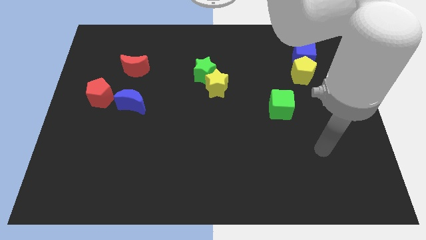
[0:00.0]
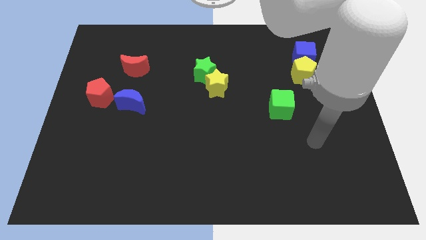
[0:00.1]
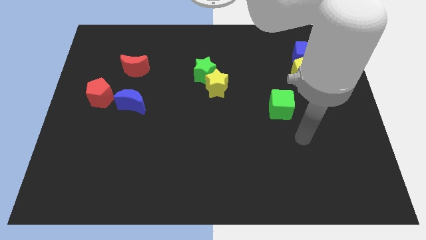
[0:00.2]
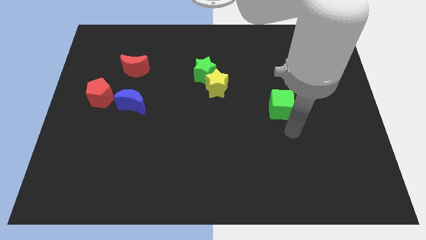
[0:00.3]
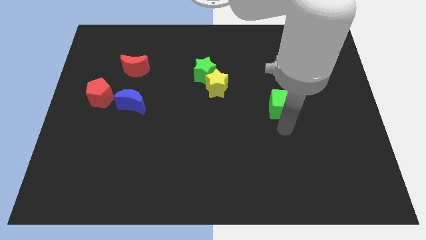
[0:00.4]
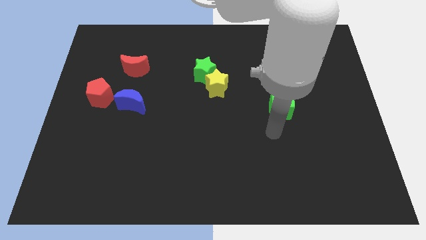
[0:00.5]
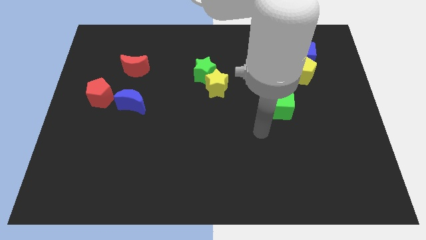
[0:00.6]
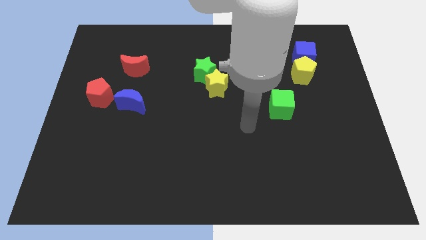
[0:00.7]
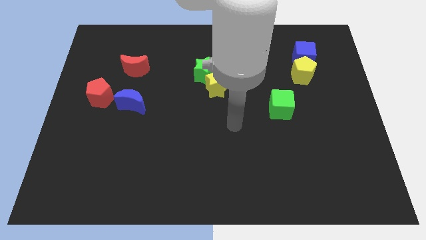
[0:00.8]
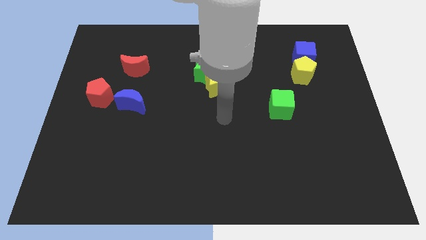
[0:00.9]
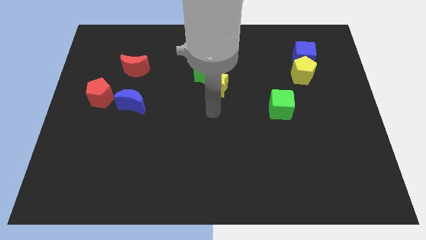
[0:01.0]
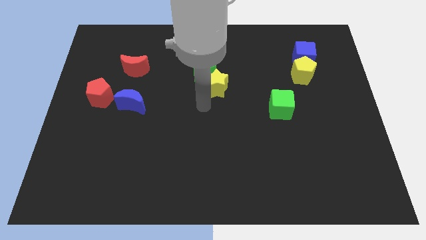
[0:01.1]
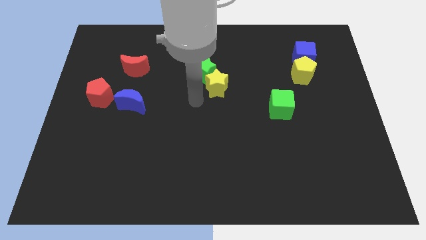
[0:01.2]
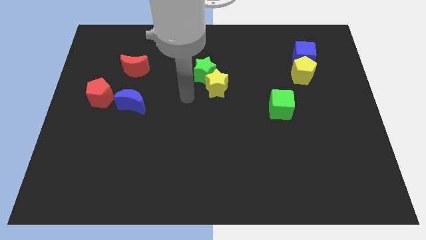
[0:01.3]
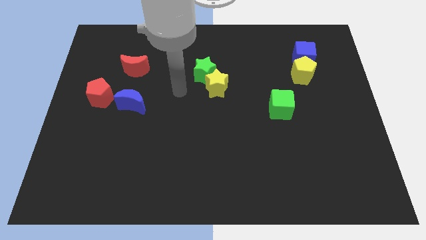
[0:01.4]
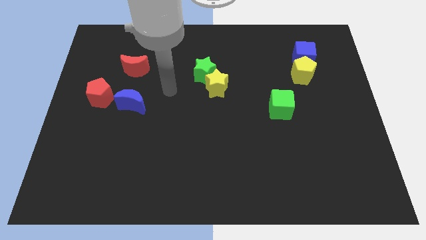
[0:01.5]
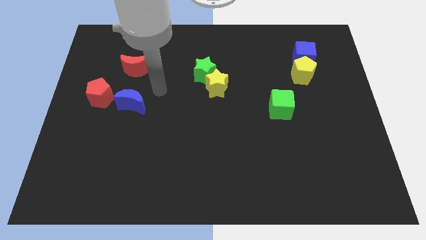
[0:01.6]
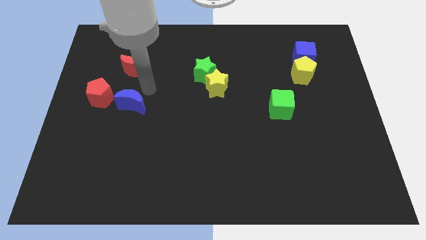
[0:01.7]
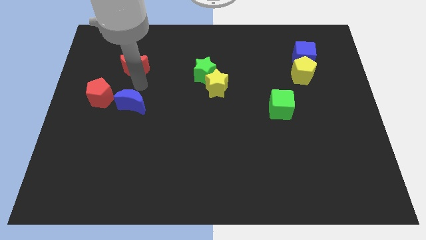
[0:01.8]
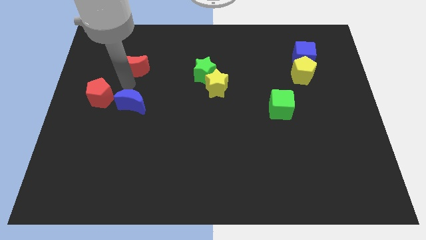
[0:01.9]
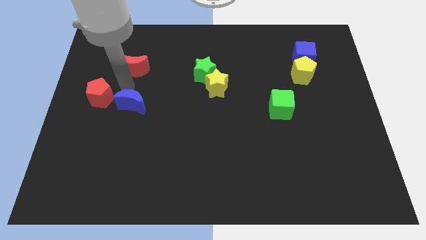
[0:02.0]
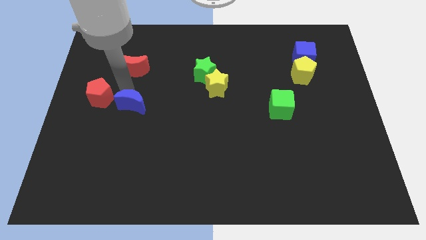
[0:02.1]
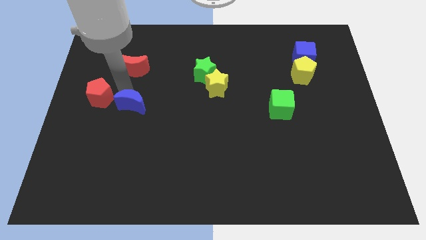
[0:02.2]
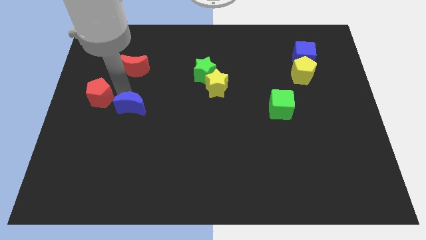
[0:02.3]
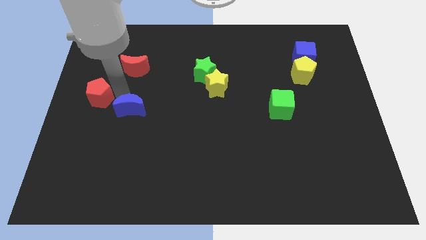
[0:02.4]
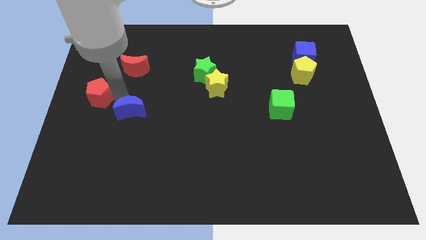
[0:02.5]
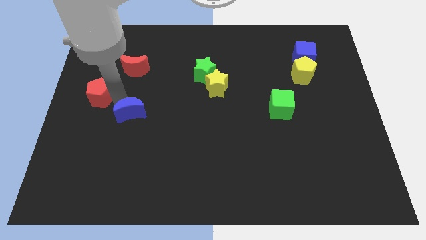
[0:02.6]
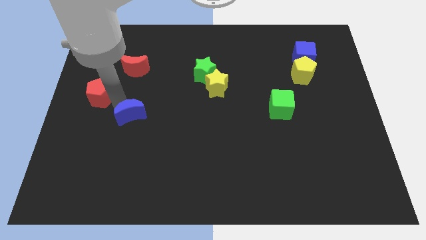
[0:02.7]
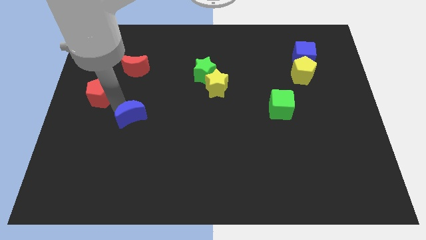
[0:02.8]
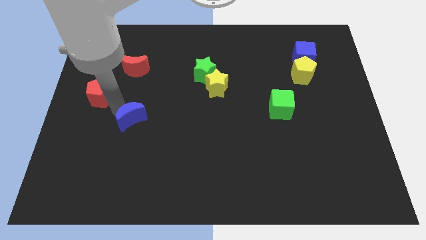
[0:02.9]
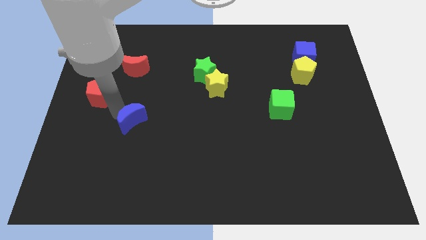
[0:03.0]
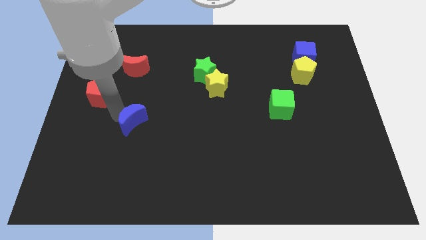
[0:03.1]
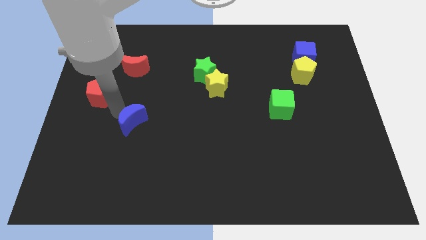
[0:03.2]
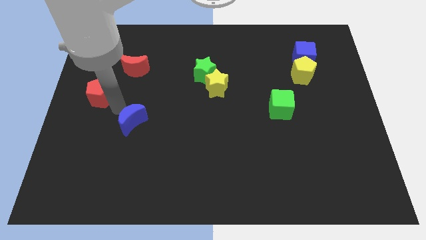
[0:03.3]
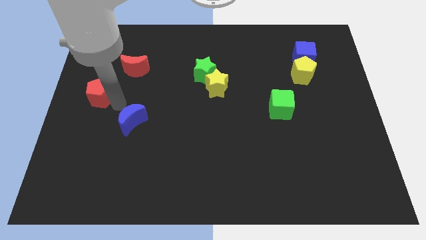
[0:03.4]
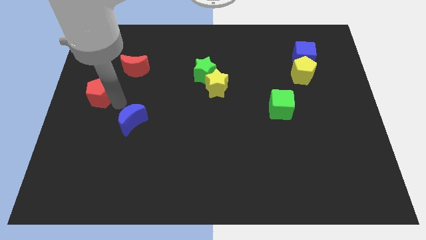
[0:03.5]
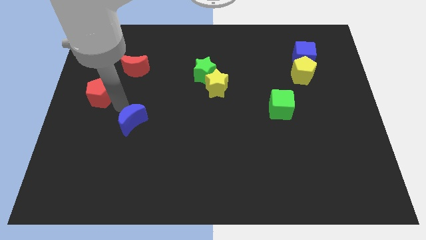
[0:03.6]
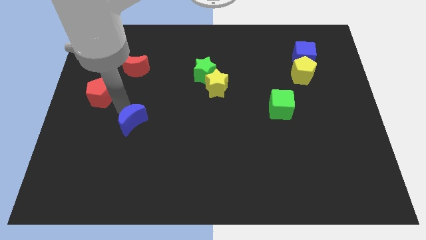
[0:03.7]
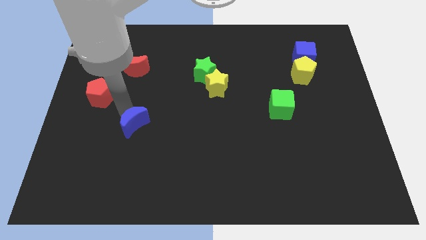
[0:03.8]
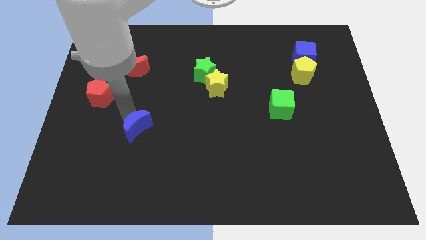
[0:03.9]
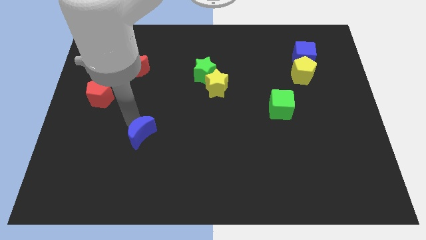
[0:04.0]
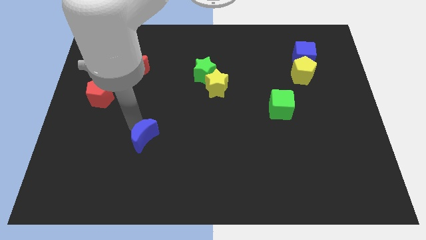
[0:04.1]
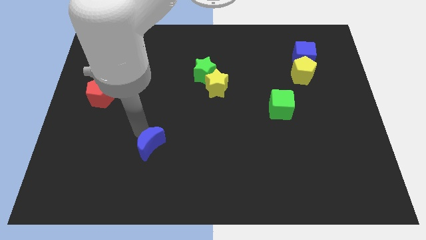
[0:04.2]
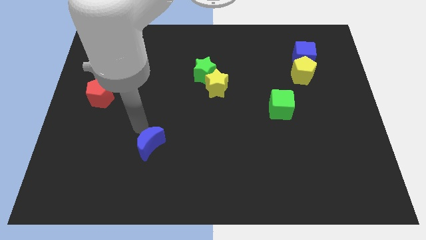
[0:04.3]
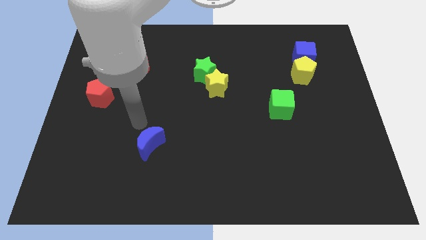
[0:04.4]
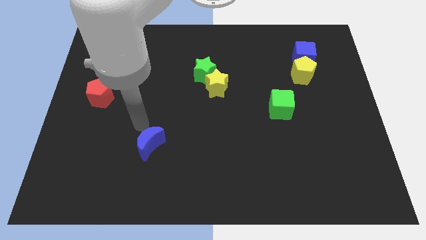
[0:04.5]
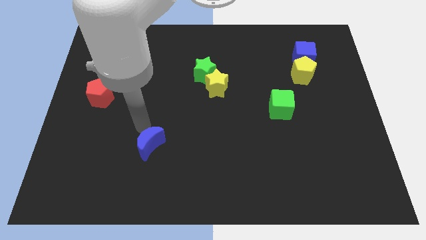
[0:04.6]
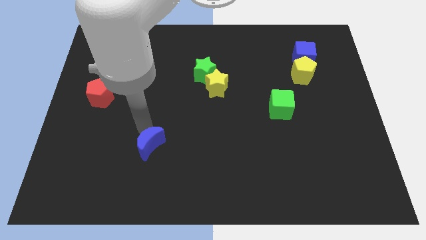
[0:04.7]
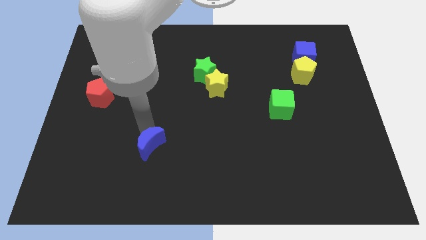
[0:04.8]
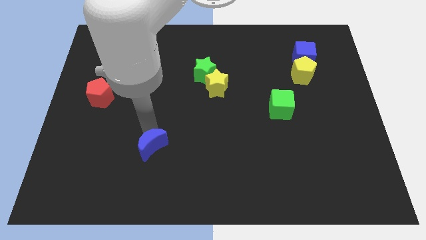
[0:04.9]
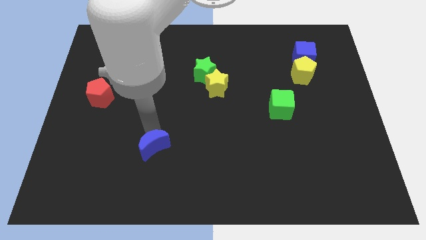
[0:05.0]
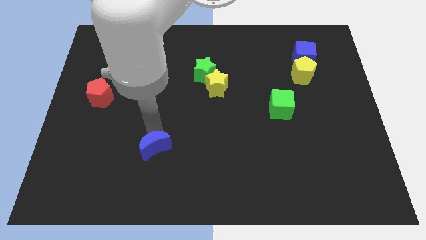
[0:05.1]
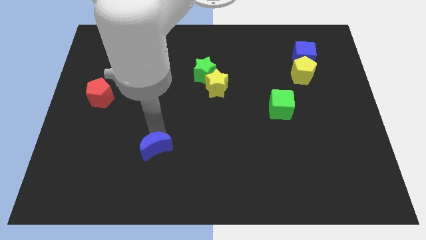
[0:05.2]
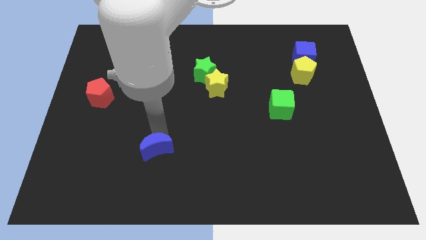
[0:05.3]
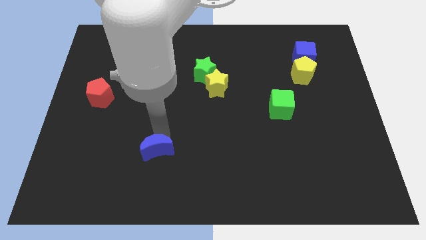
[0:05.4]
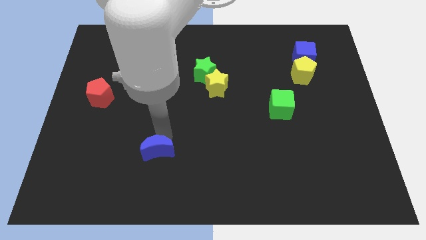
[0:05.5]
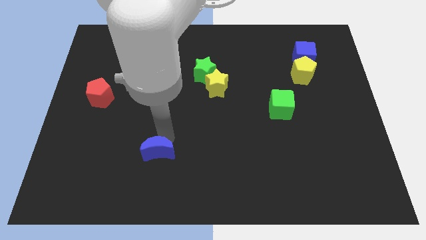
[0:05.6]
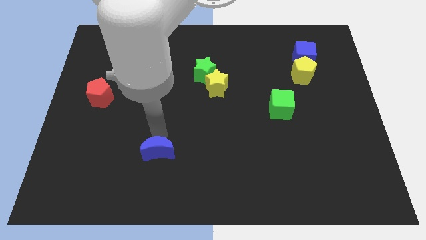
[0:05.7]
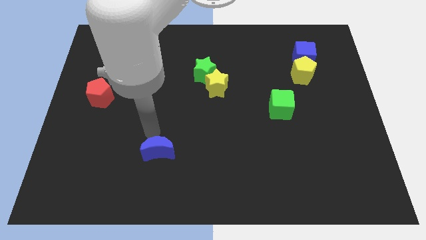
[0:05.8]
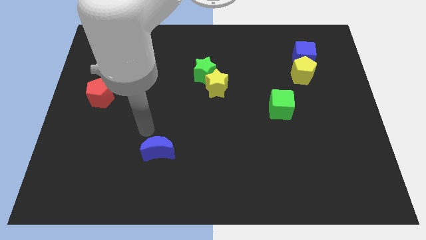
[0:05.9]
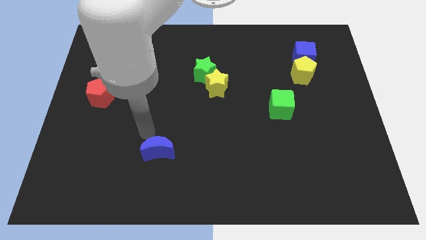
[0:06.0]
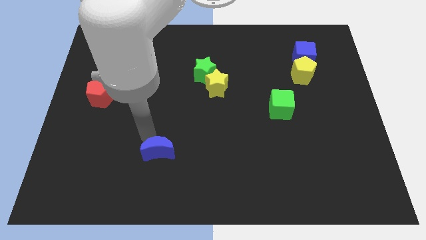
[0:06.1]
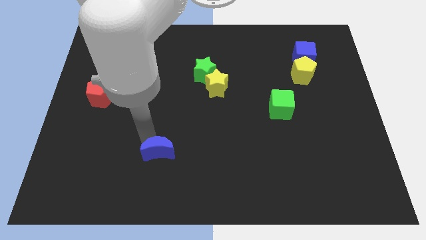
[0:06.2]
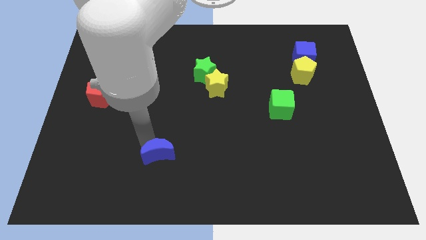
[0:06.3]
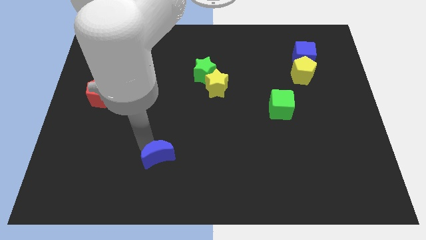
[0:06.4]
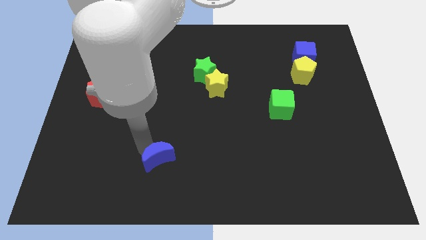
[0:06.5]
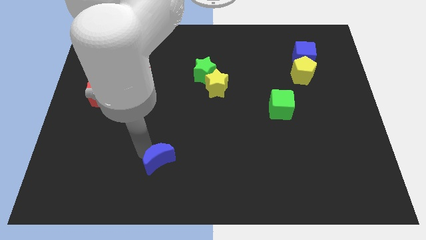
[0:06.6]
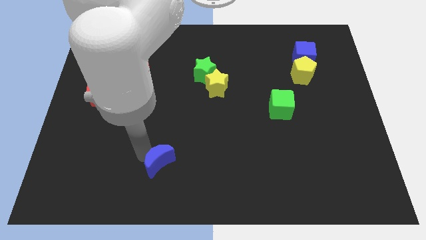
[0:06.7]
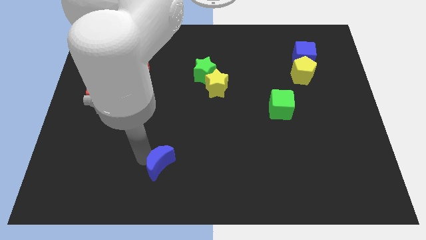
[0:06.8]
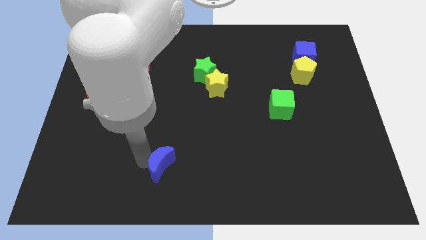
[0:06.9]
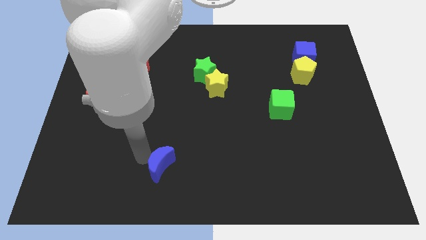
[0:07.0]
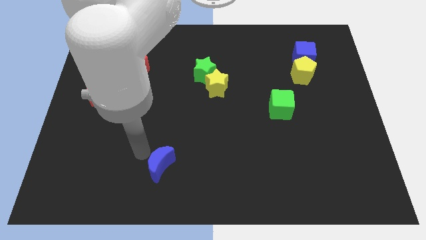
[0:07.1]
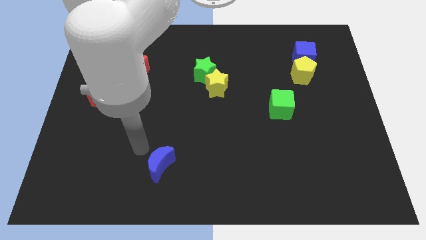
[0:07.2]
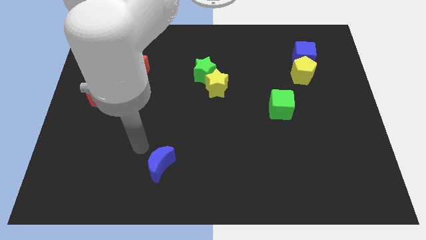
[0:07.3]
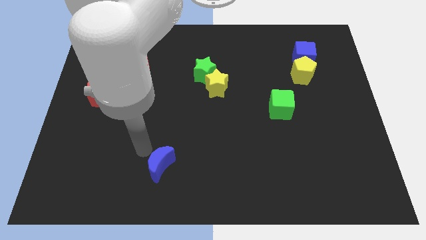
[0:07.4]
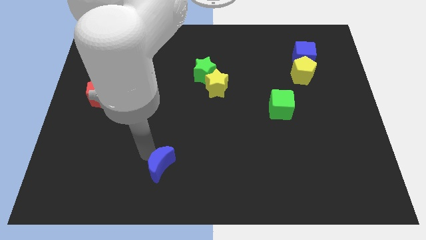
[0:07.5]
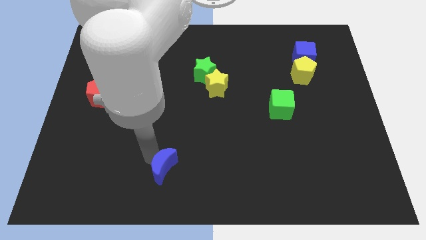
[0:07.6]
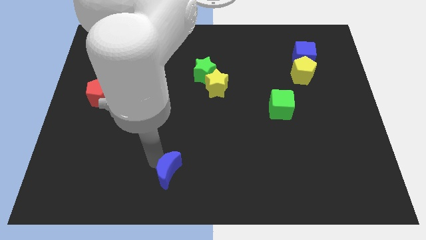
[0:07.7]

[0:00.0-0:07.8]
move the blue moon to the bottom
